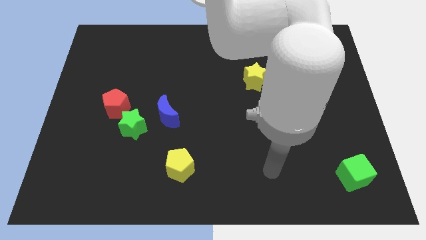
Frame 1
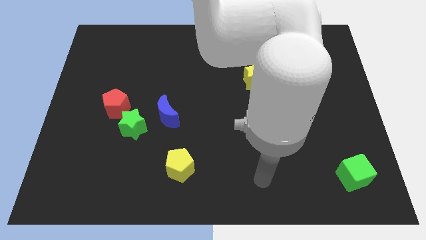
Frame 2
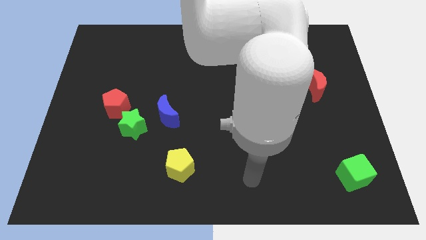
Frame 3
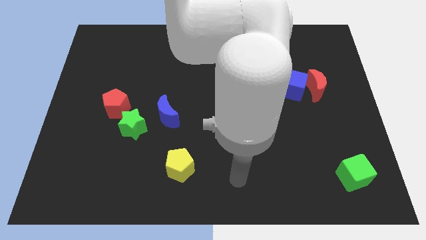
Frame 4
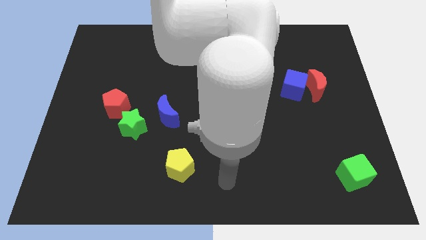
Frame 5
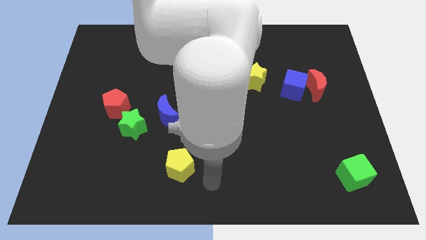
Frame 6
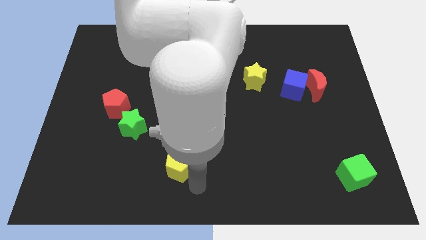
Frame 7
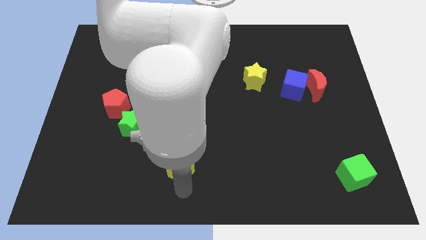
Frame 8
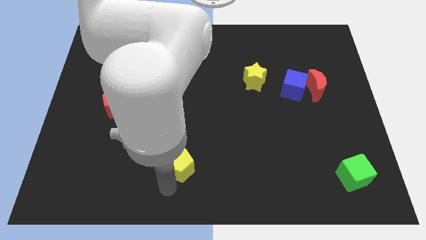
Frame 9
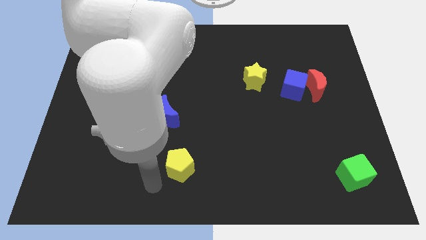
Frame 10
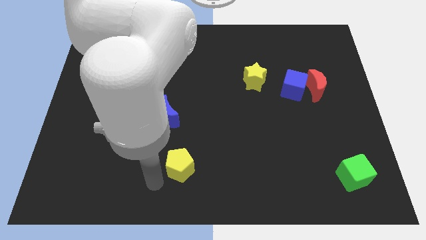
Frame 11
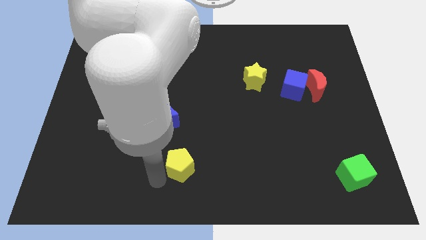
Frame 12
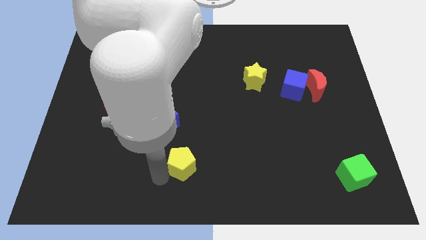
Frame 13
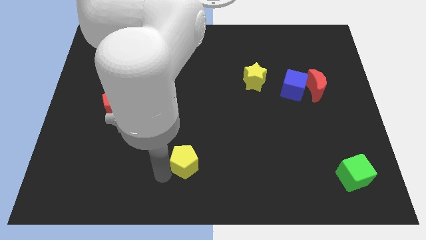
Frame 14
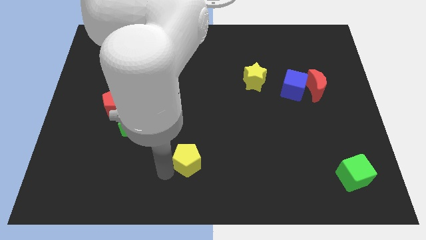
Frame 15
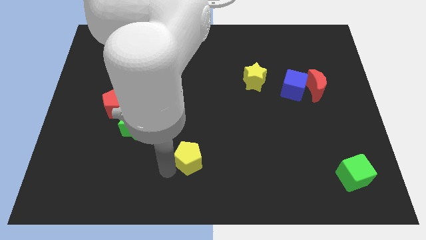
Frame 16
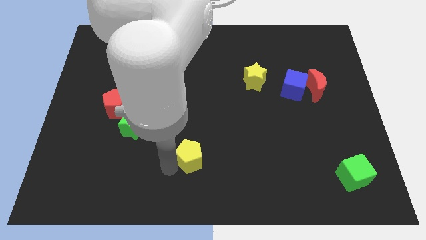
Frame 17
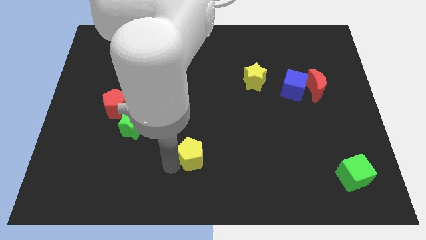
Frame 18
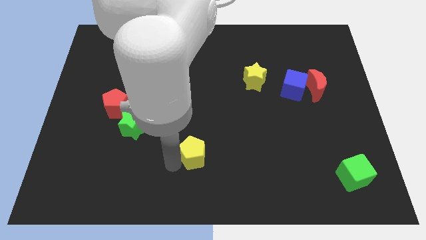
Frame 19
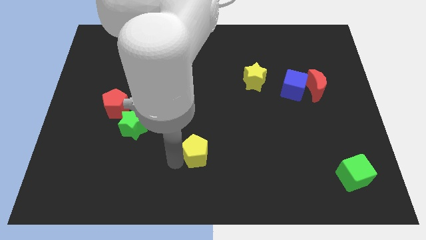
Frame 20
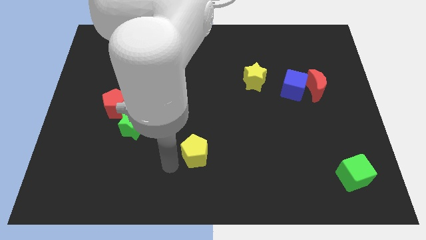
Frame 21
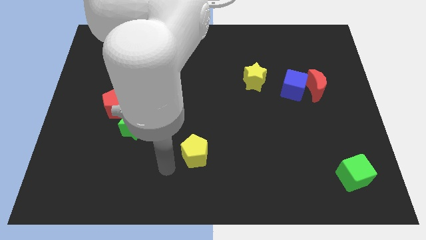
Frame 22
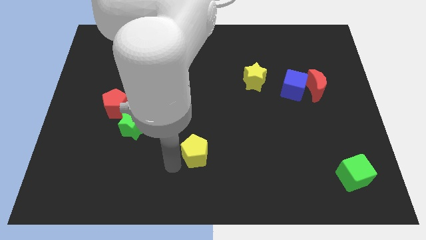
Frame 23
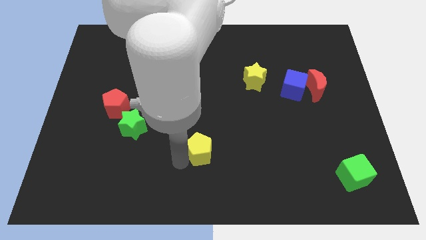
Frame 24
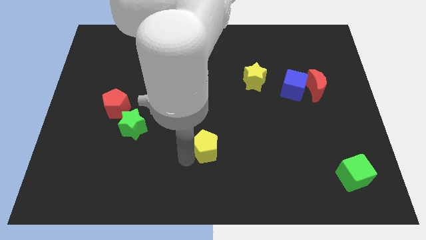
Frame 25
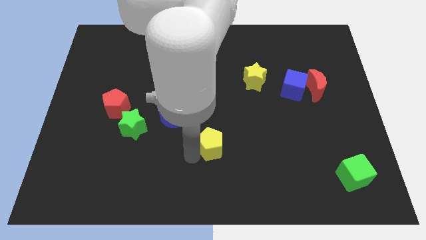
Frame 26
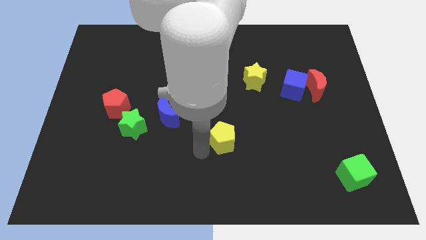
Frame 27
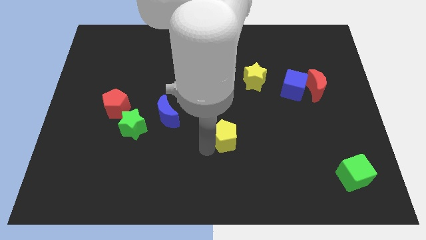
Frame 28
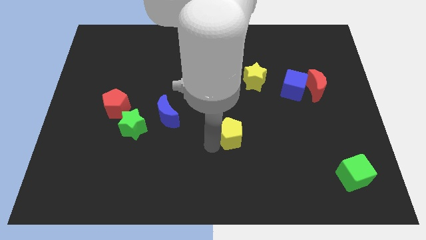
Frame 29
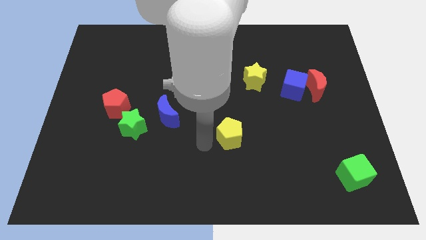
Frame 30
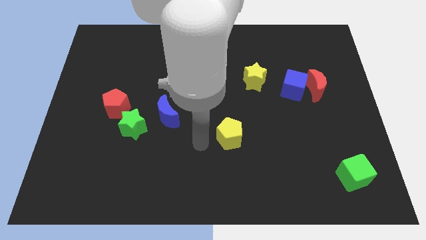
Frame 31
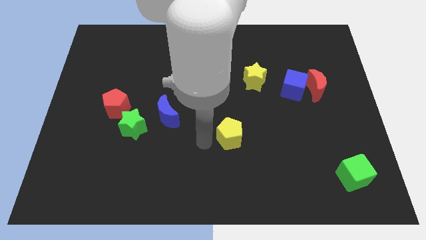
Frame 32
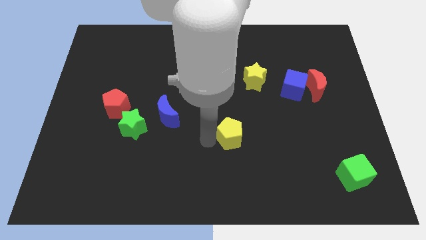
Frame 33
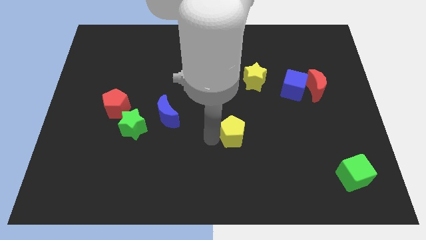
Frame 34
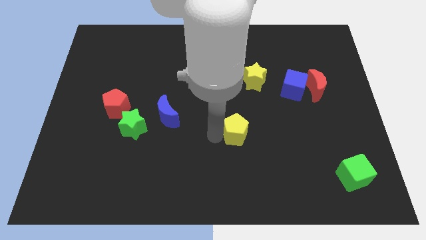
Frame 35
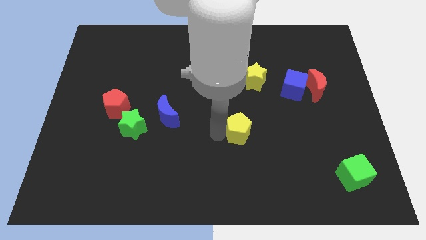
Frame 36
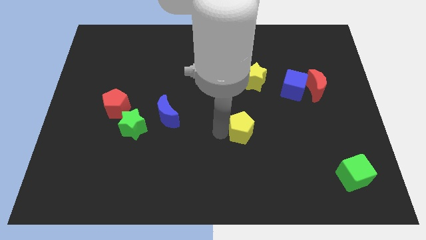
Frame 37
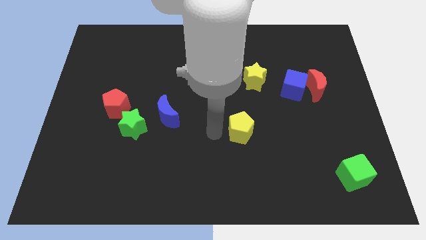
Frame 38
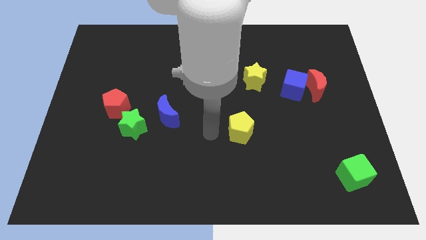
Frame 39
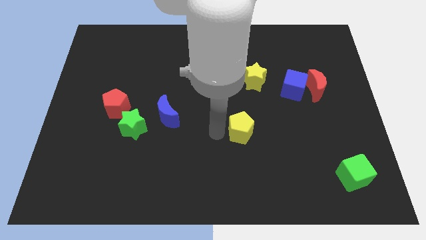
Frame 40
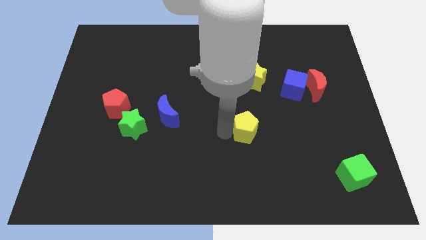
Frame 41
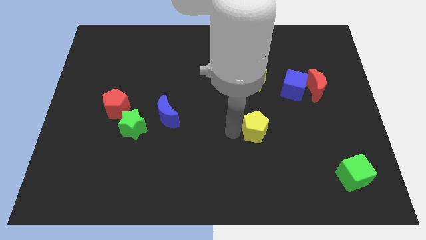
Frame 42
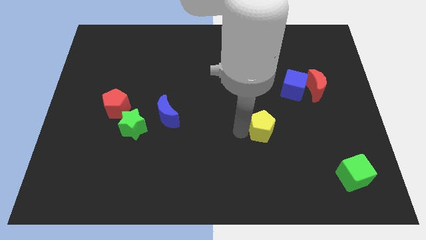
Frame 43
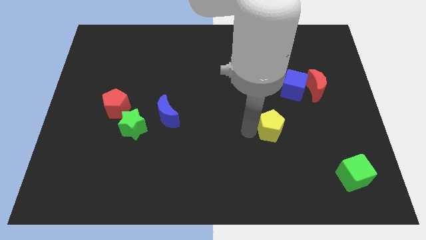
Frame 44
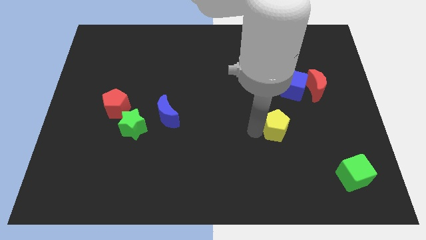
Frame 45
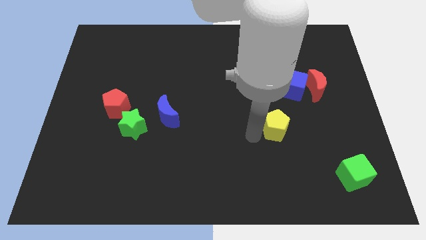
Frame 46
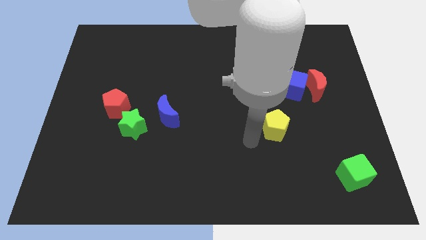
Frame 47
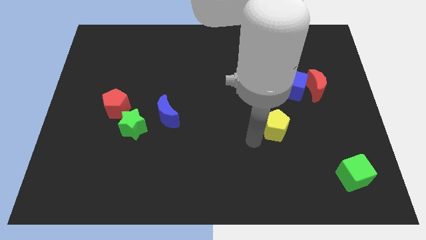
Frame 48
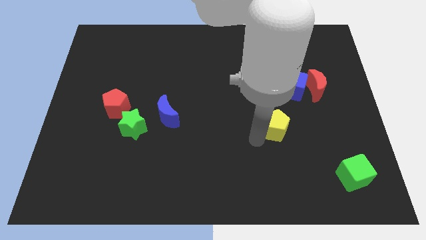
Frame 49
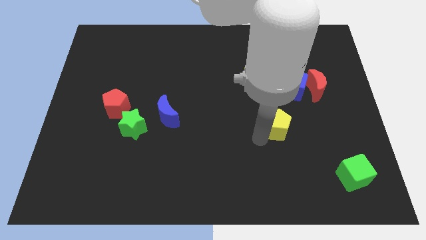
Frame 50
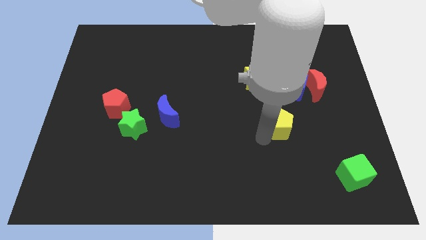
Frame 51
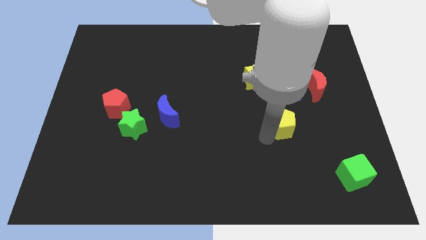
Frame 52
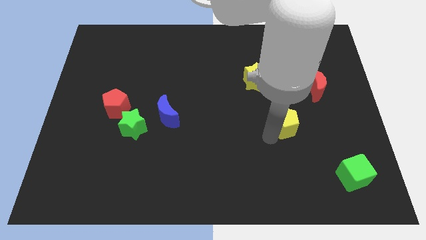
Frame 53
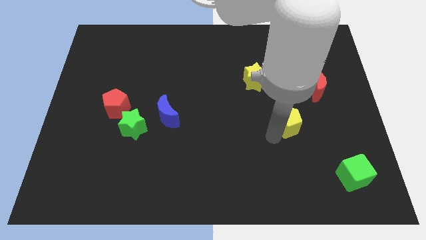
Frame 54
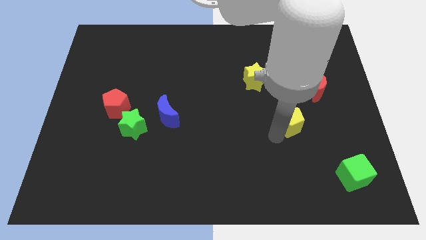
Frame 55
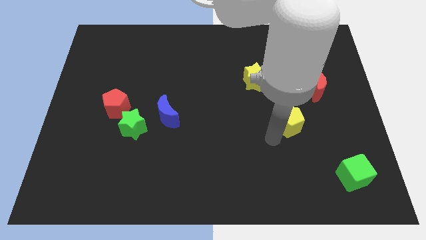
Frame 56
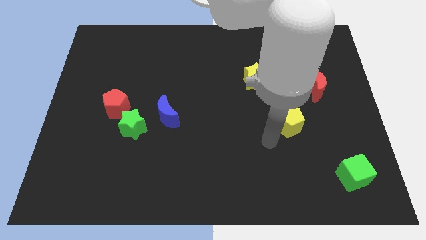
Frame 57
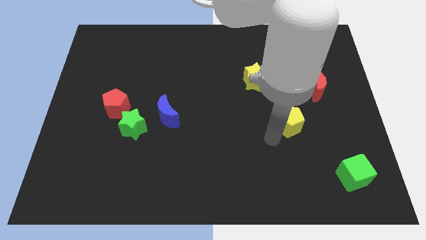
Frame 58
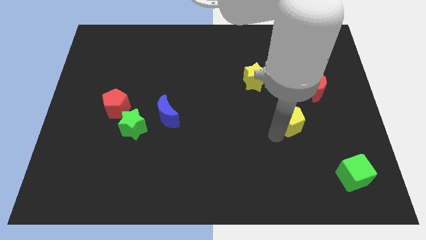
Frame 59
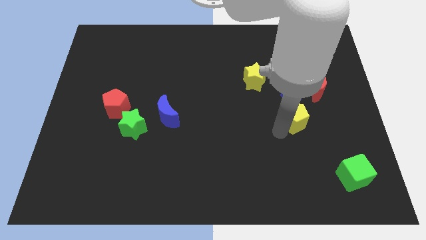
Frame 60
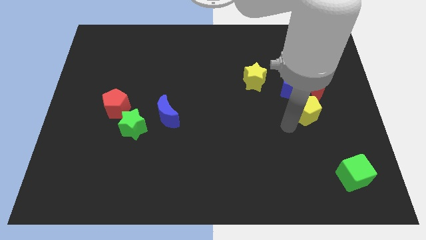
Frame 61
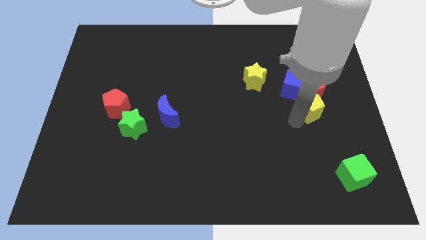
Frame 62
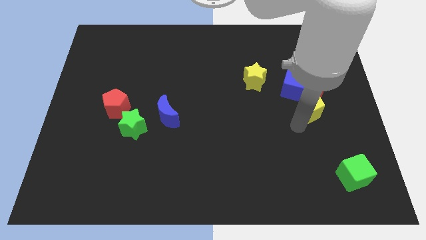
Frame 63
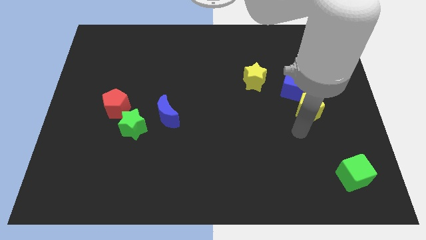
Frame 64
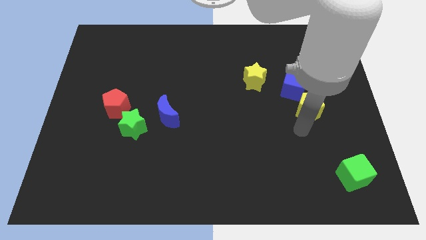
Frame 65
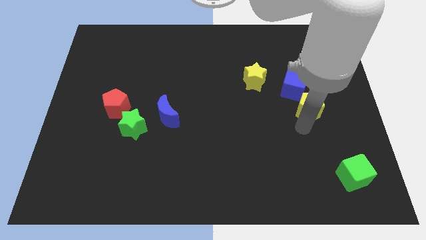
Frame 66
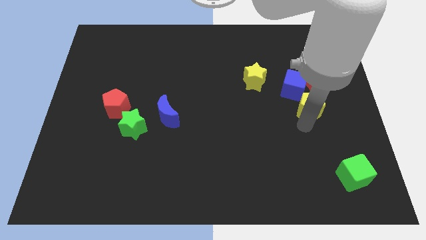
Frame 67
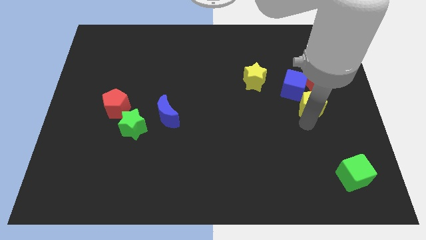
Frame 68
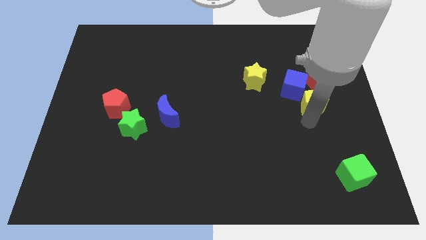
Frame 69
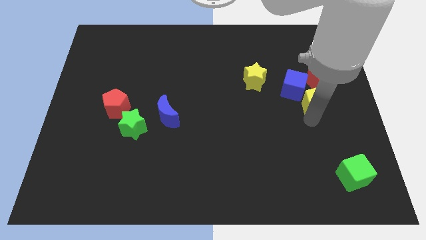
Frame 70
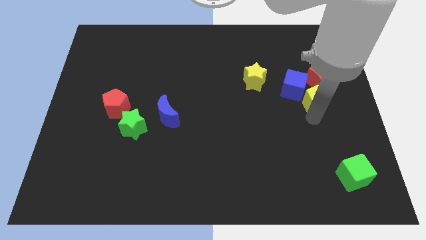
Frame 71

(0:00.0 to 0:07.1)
push the yellow pentagon towards the red moon
